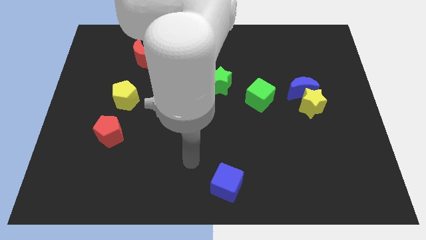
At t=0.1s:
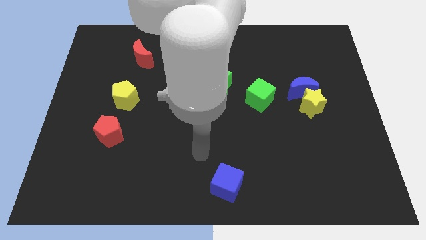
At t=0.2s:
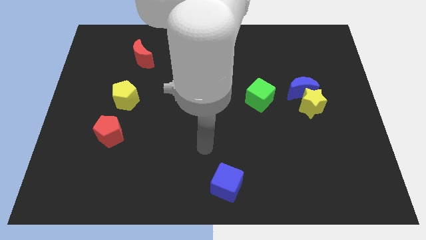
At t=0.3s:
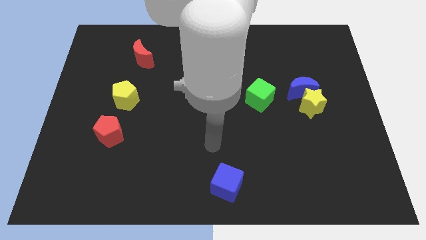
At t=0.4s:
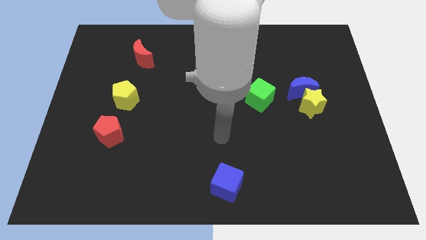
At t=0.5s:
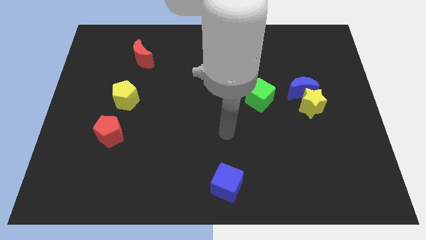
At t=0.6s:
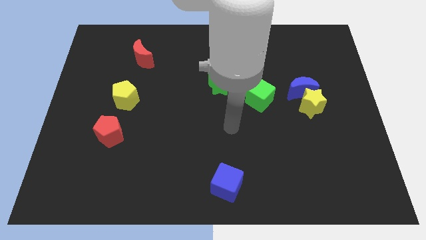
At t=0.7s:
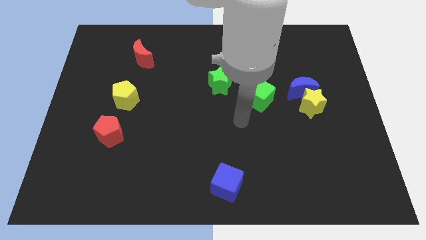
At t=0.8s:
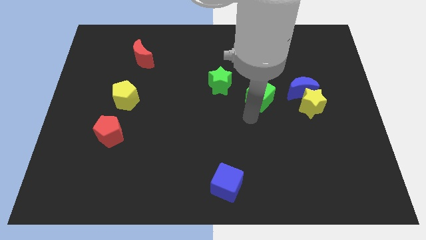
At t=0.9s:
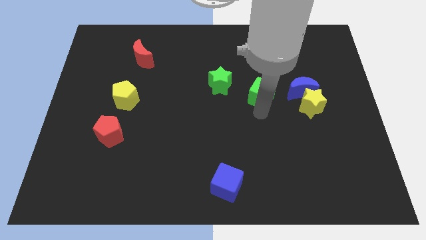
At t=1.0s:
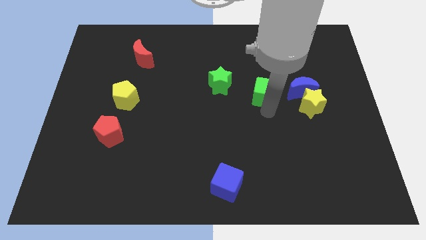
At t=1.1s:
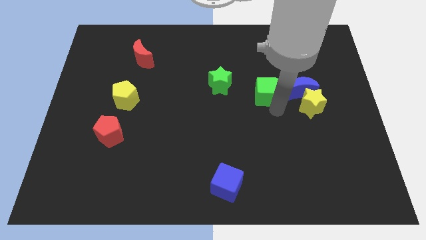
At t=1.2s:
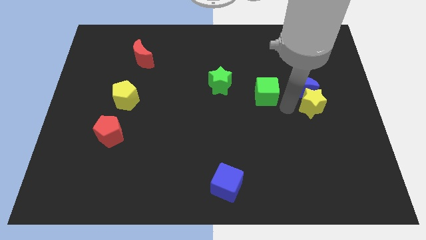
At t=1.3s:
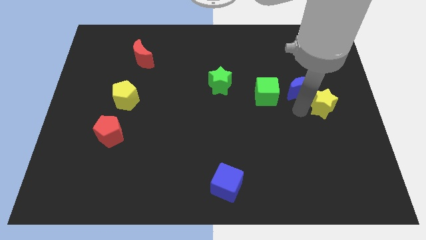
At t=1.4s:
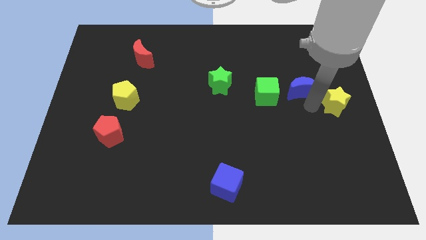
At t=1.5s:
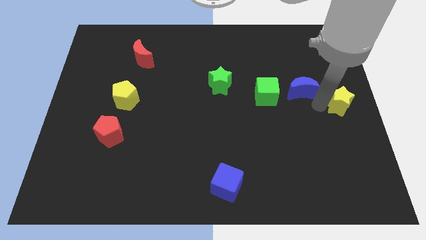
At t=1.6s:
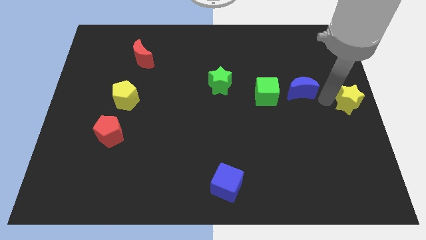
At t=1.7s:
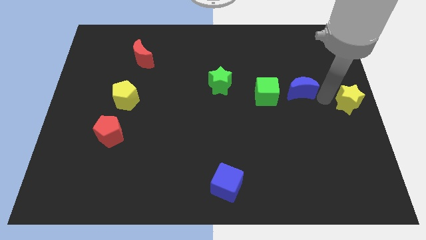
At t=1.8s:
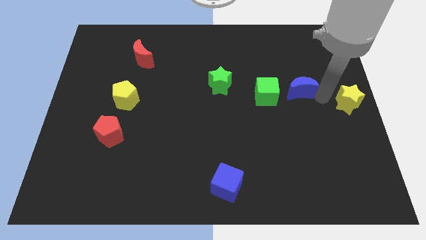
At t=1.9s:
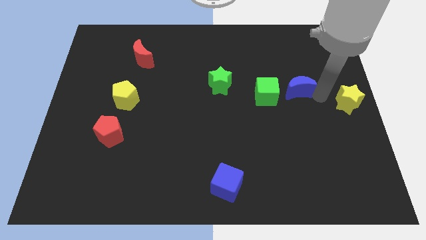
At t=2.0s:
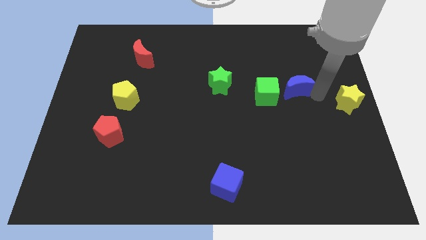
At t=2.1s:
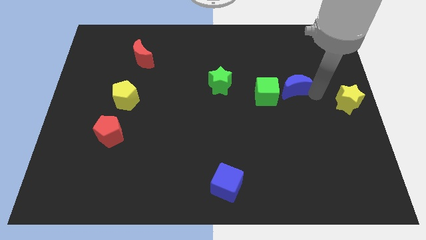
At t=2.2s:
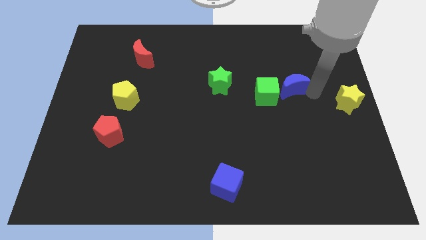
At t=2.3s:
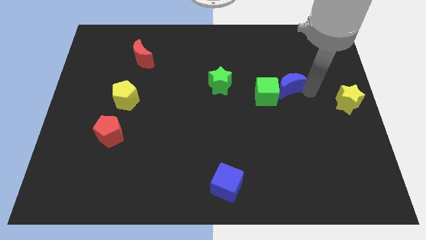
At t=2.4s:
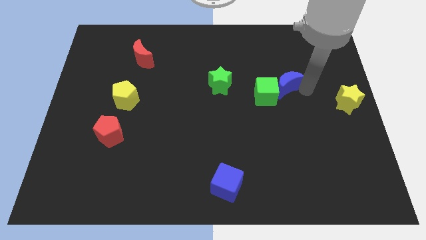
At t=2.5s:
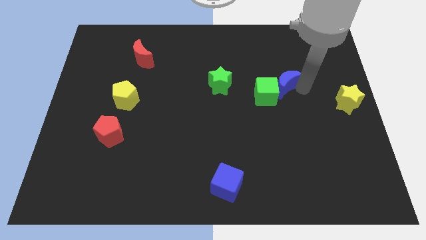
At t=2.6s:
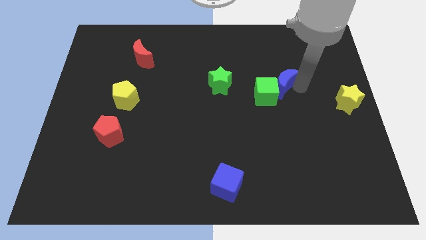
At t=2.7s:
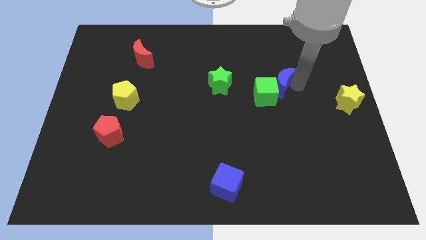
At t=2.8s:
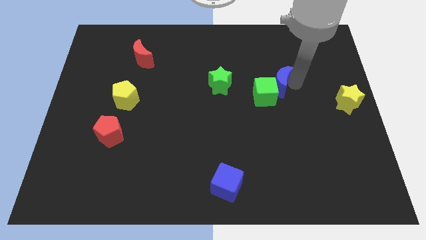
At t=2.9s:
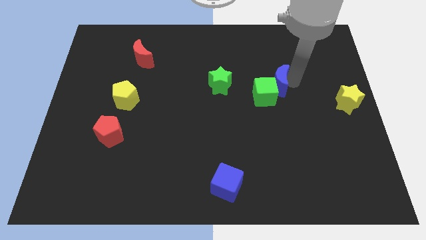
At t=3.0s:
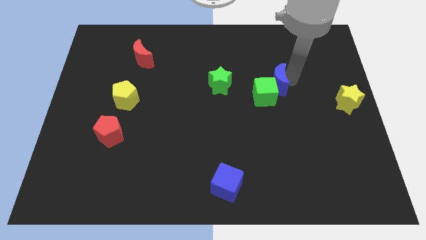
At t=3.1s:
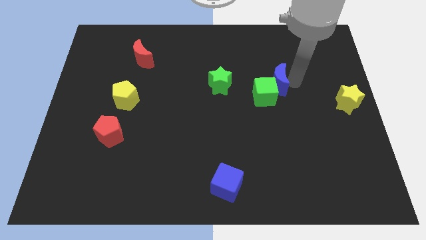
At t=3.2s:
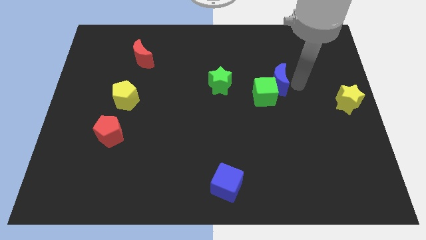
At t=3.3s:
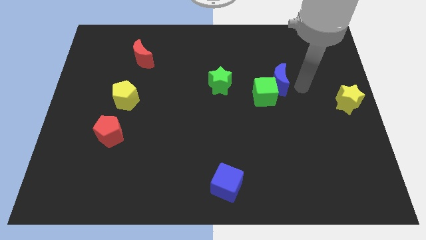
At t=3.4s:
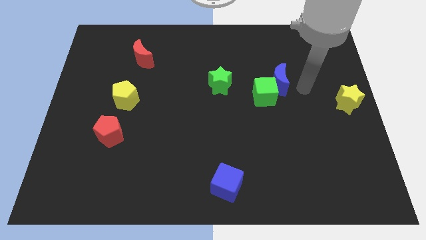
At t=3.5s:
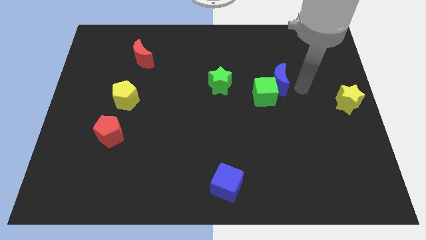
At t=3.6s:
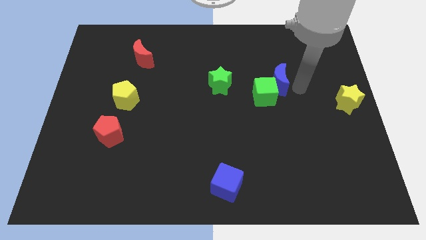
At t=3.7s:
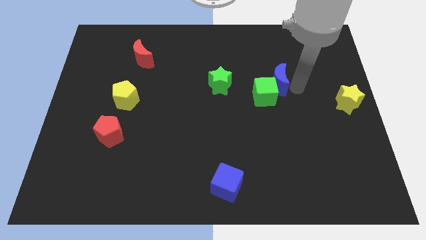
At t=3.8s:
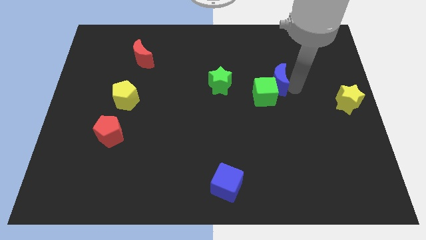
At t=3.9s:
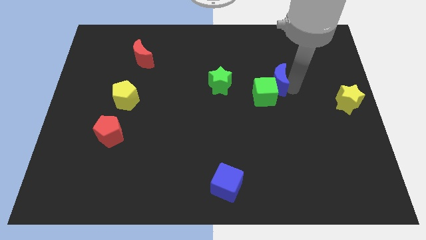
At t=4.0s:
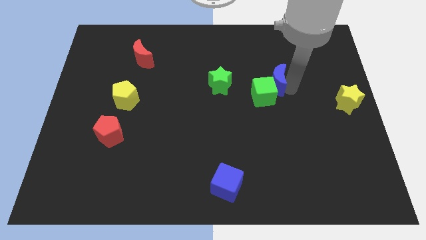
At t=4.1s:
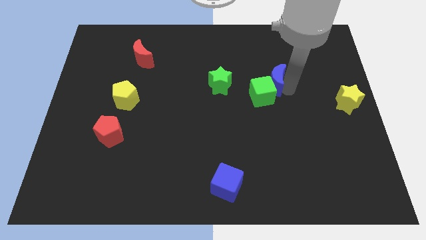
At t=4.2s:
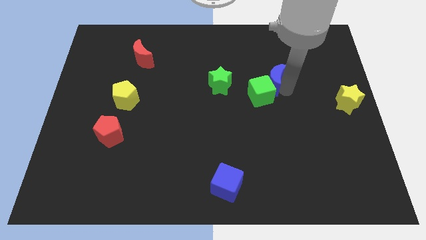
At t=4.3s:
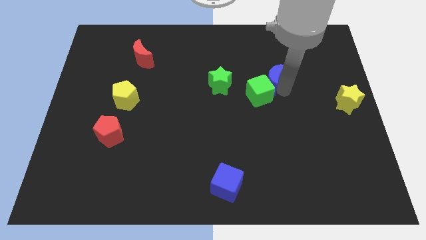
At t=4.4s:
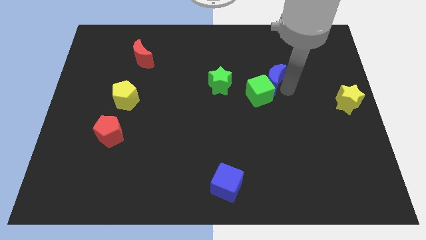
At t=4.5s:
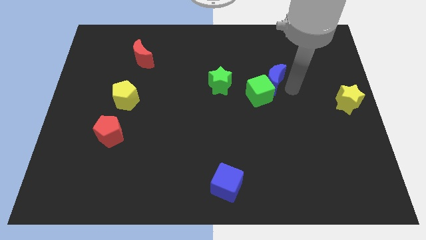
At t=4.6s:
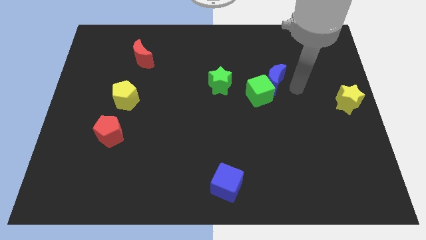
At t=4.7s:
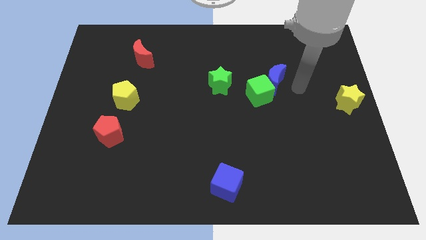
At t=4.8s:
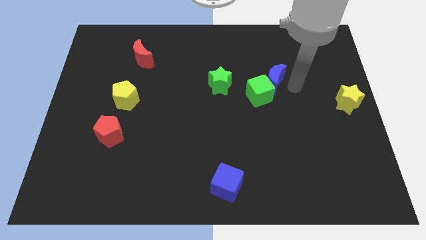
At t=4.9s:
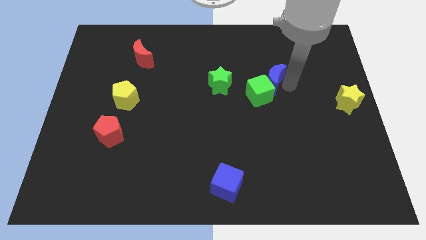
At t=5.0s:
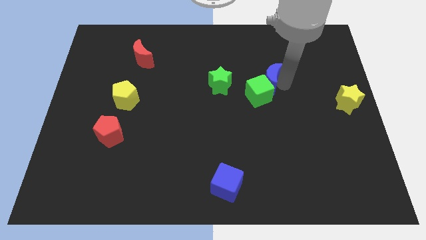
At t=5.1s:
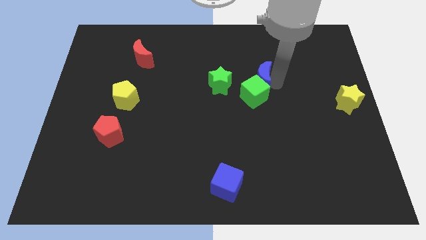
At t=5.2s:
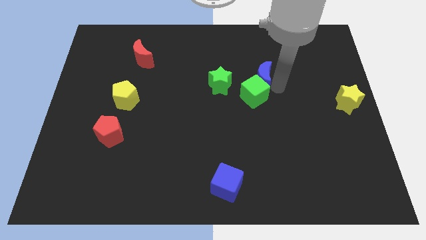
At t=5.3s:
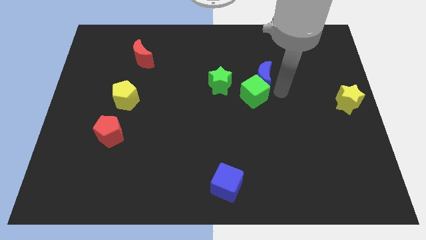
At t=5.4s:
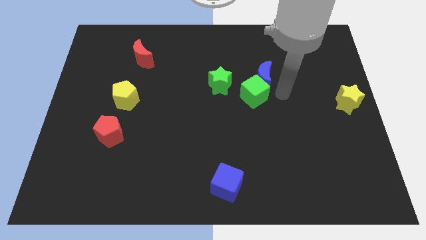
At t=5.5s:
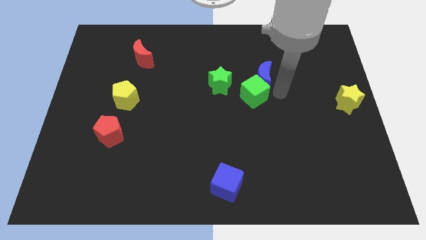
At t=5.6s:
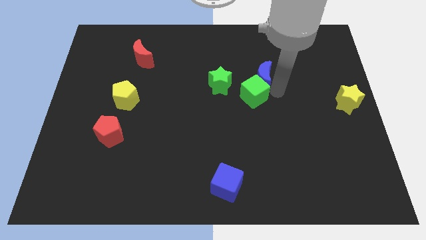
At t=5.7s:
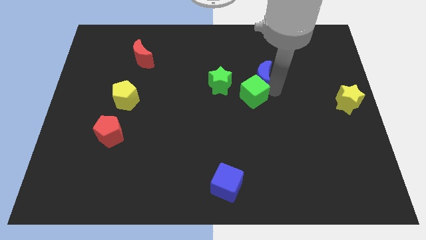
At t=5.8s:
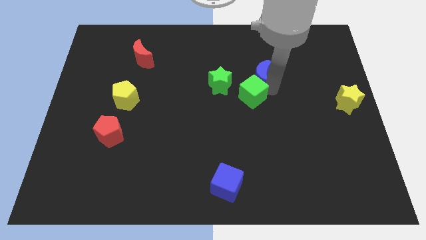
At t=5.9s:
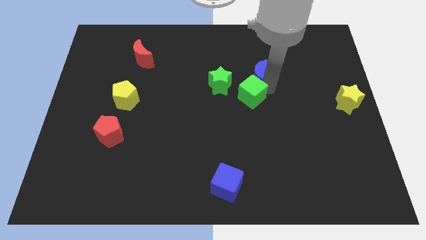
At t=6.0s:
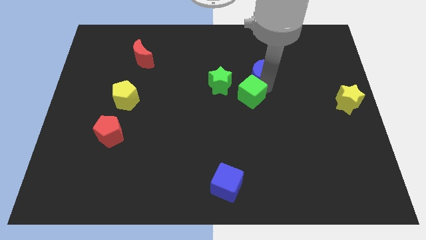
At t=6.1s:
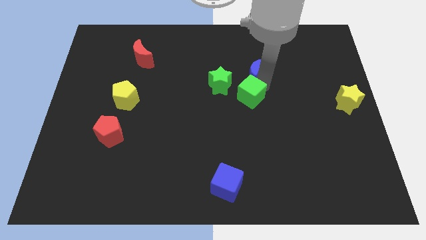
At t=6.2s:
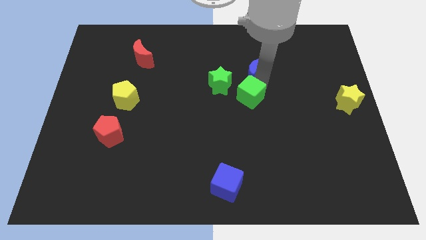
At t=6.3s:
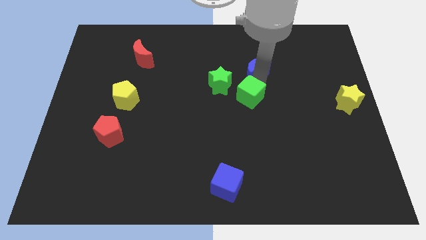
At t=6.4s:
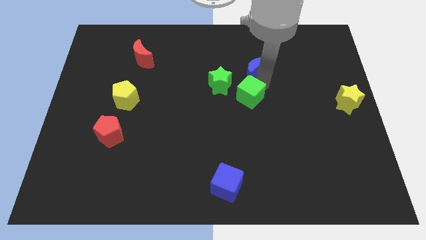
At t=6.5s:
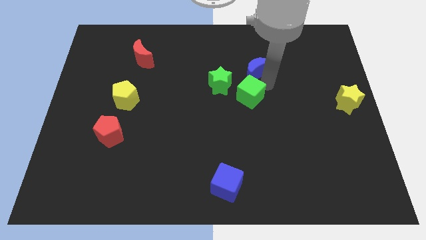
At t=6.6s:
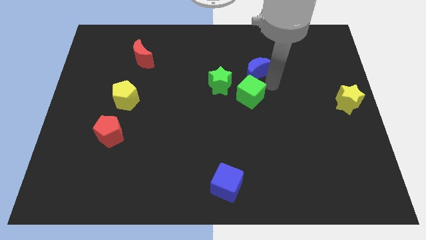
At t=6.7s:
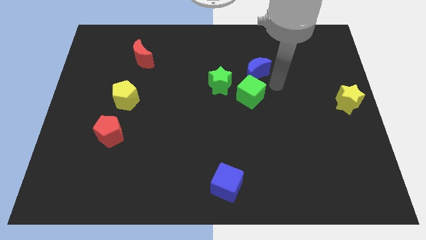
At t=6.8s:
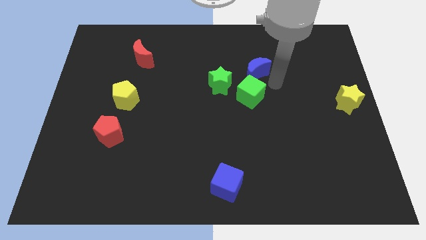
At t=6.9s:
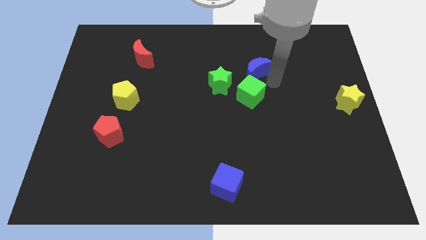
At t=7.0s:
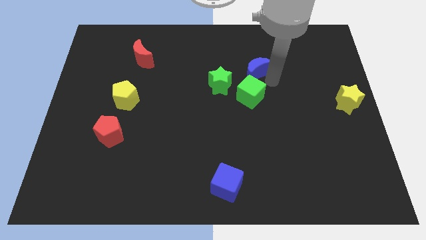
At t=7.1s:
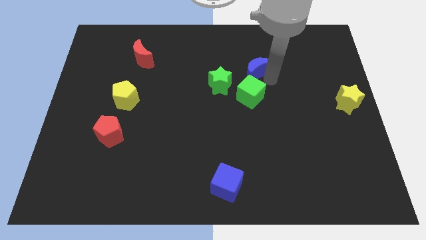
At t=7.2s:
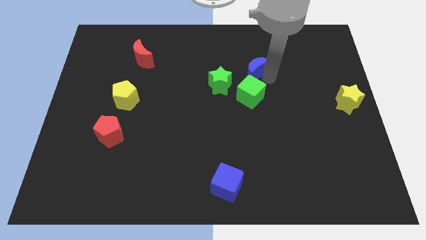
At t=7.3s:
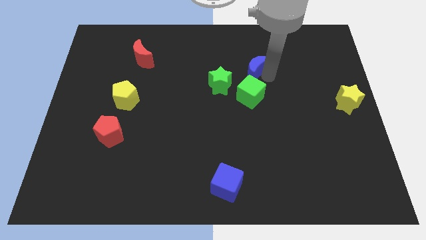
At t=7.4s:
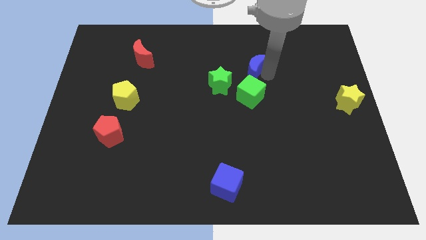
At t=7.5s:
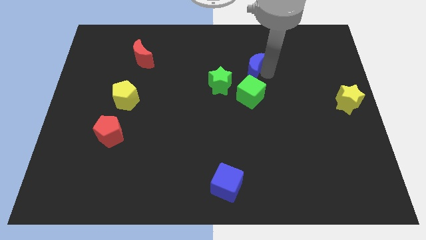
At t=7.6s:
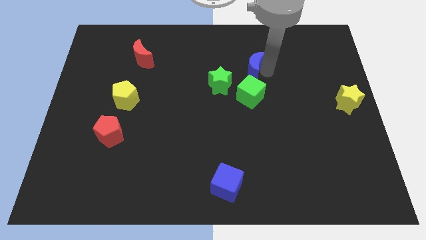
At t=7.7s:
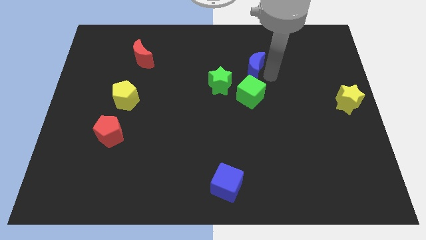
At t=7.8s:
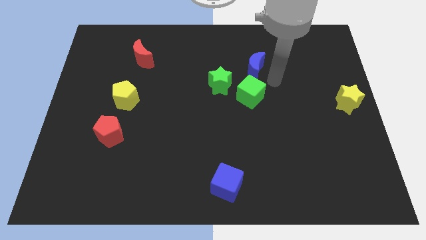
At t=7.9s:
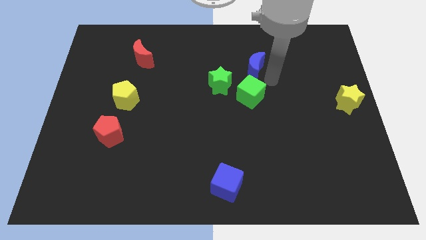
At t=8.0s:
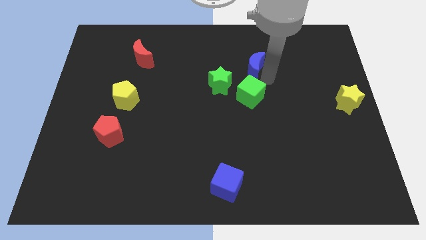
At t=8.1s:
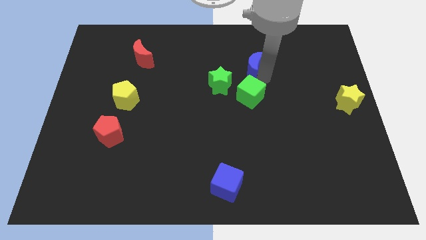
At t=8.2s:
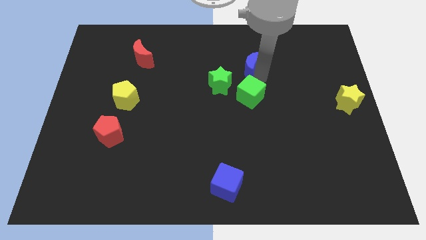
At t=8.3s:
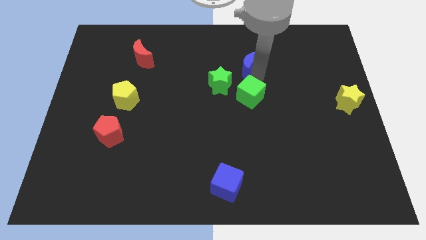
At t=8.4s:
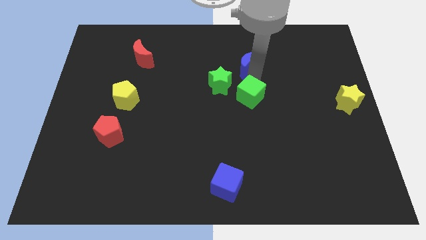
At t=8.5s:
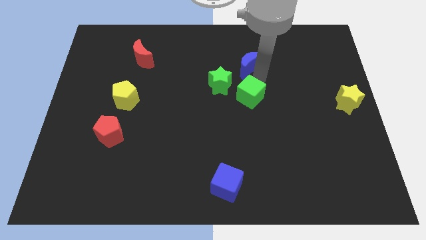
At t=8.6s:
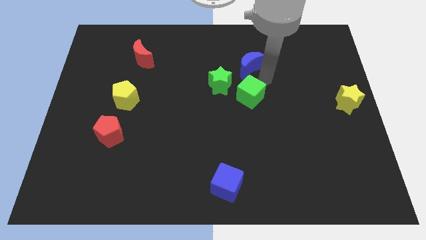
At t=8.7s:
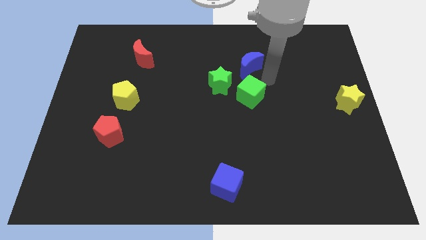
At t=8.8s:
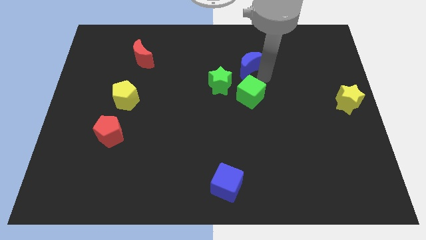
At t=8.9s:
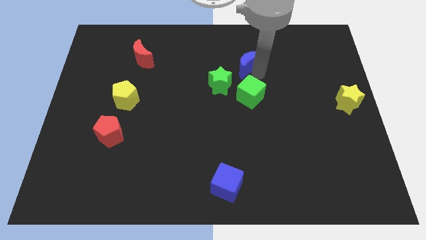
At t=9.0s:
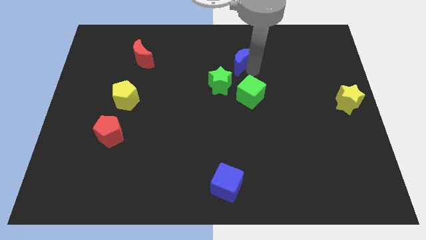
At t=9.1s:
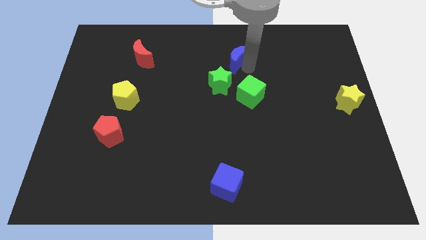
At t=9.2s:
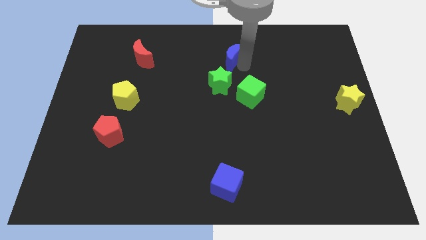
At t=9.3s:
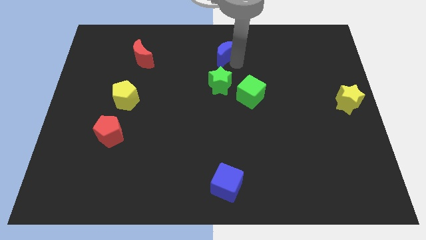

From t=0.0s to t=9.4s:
push the blue moon to the towards your base
